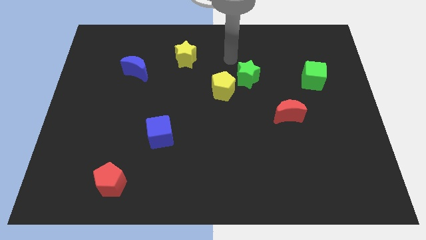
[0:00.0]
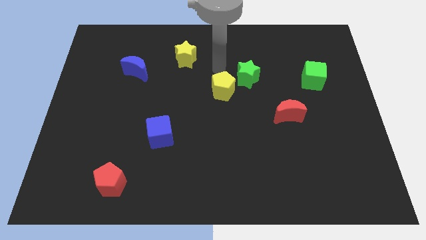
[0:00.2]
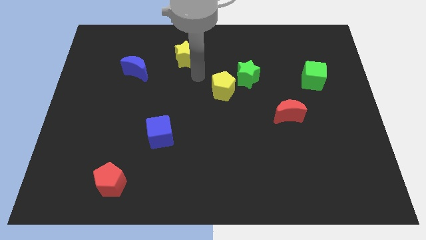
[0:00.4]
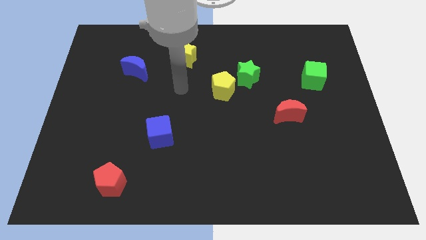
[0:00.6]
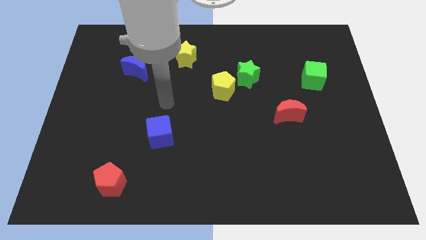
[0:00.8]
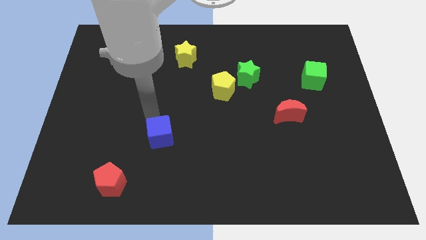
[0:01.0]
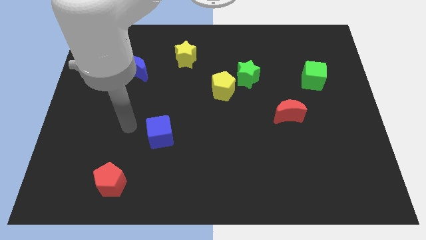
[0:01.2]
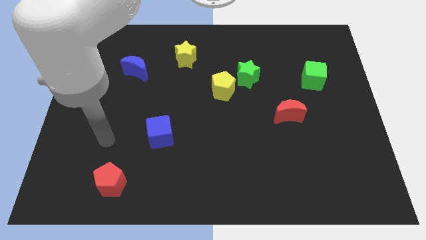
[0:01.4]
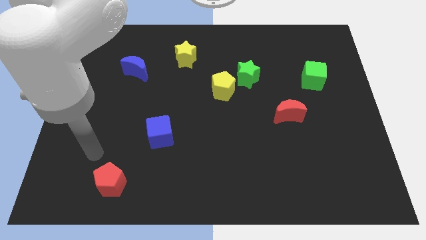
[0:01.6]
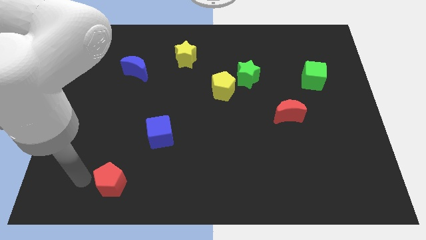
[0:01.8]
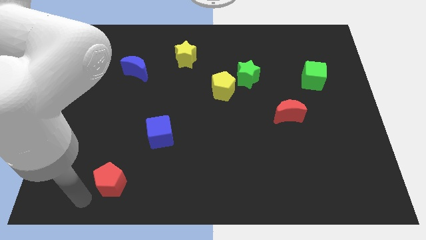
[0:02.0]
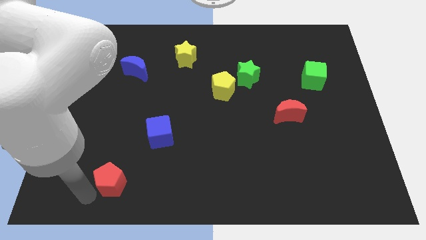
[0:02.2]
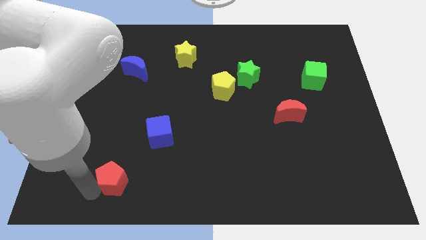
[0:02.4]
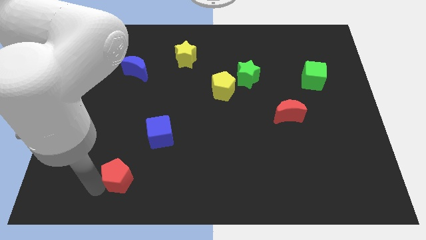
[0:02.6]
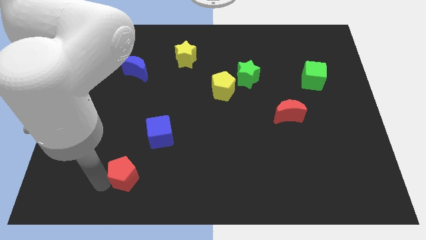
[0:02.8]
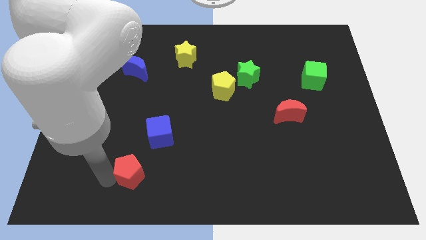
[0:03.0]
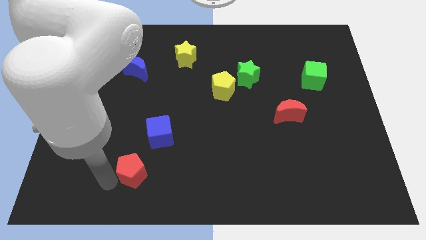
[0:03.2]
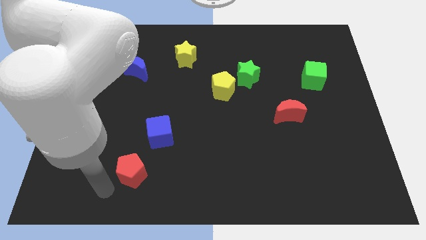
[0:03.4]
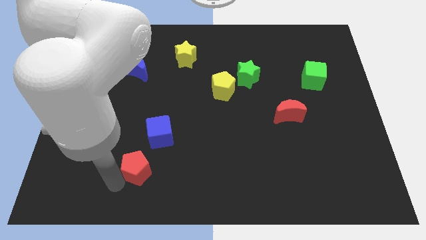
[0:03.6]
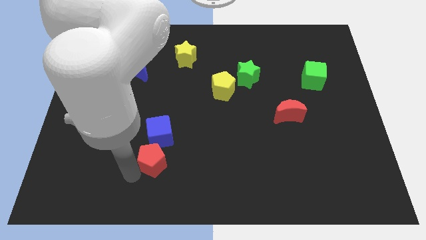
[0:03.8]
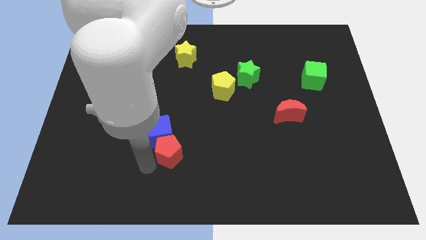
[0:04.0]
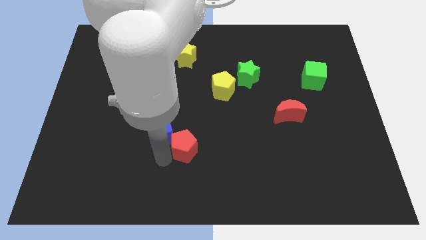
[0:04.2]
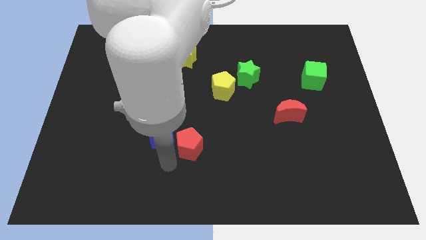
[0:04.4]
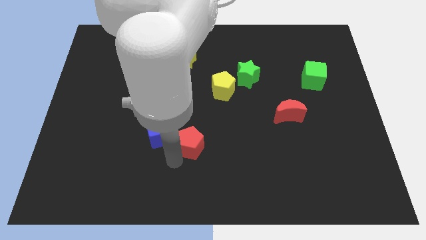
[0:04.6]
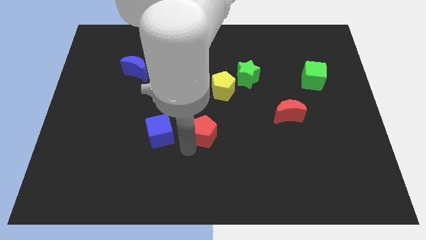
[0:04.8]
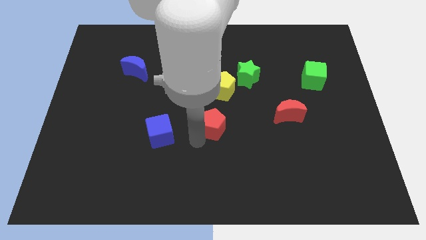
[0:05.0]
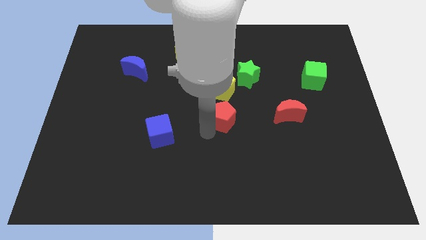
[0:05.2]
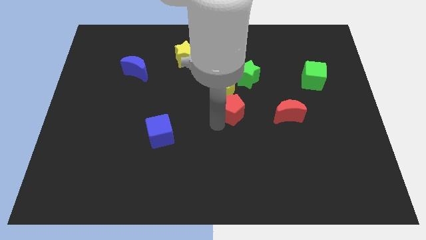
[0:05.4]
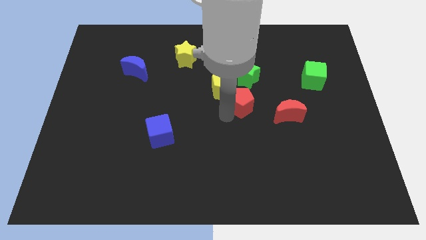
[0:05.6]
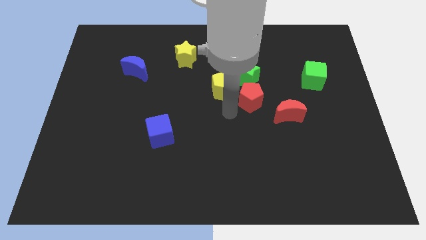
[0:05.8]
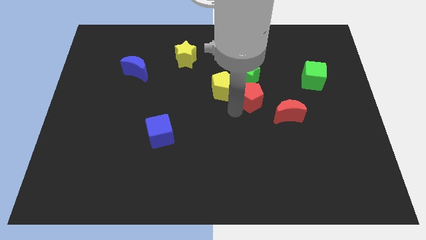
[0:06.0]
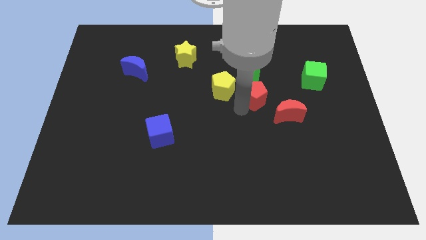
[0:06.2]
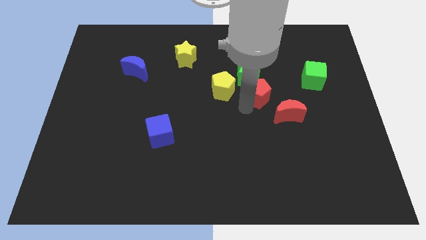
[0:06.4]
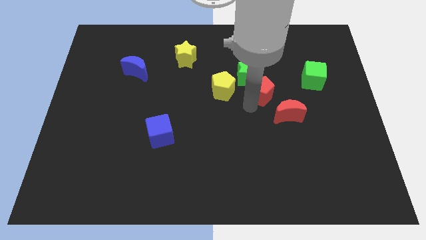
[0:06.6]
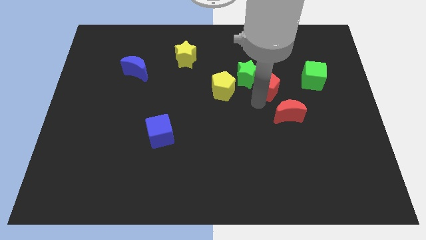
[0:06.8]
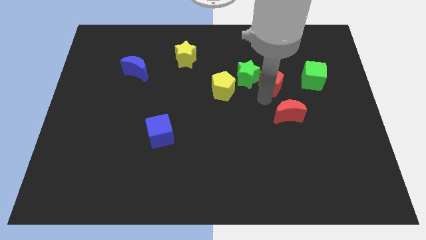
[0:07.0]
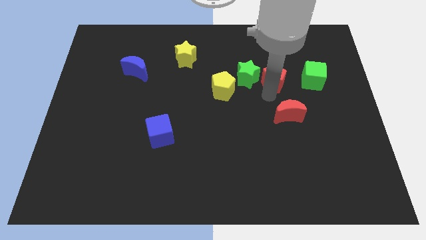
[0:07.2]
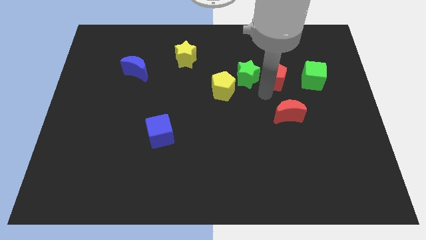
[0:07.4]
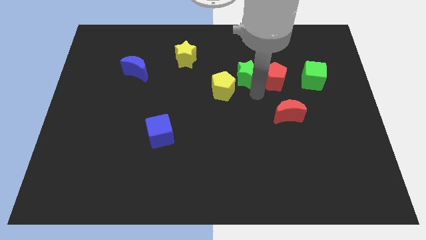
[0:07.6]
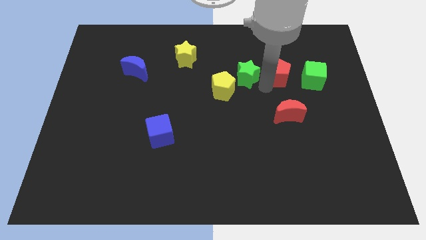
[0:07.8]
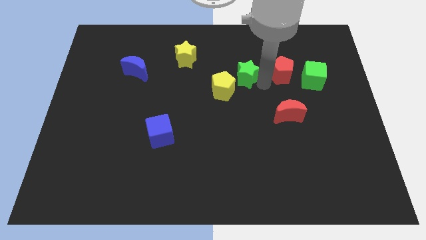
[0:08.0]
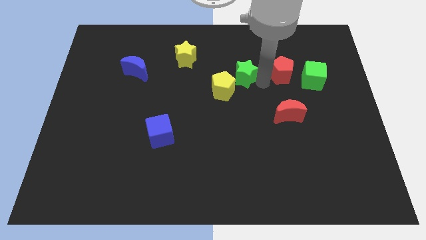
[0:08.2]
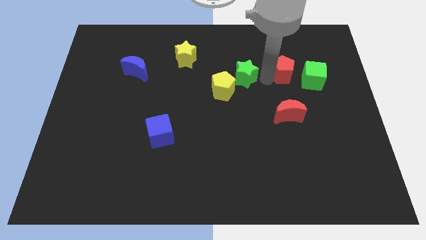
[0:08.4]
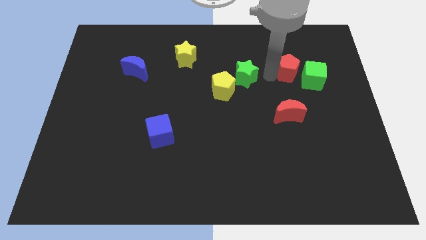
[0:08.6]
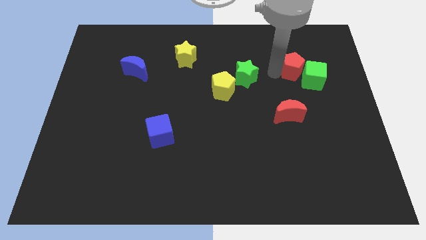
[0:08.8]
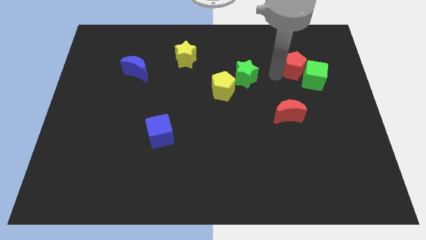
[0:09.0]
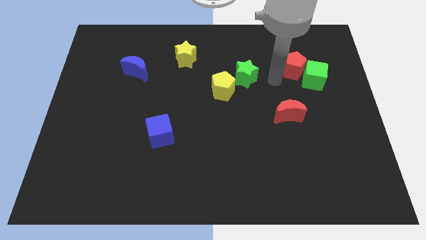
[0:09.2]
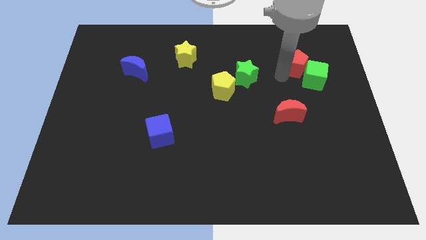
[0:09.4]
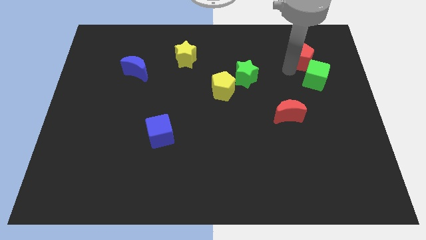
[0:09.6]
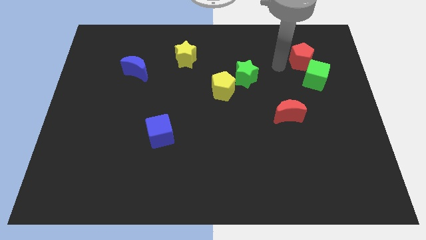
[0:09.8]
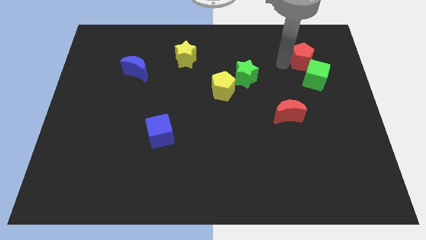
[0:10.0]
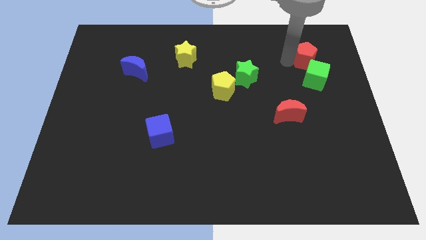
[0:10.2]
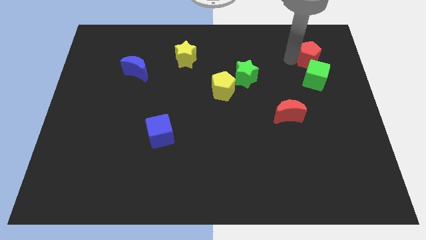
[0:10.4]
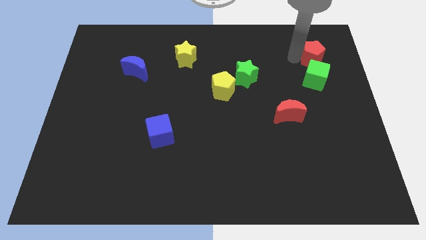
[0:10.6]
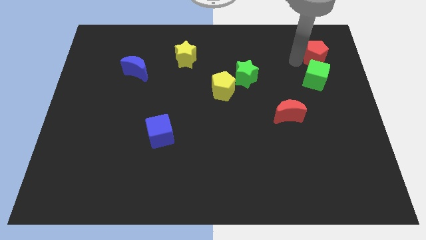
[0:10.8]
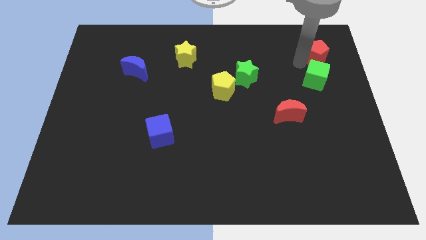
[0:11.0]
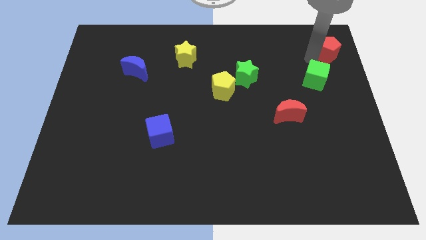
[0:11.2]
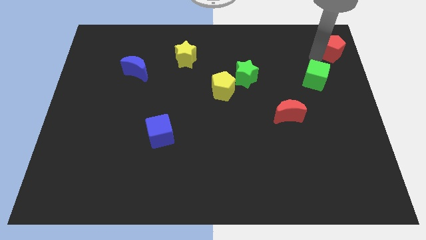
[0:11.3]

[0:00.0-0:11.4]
slide the red pentagon to the top right of the board
